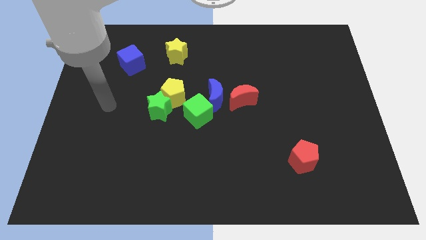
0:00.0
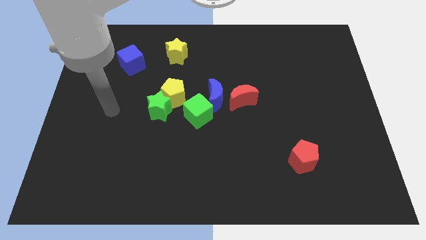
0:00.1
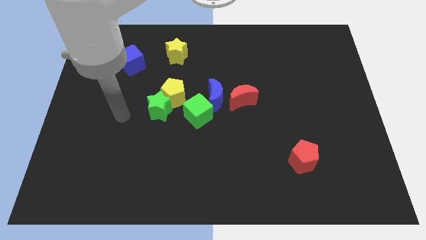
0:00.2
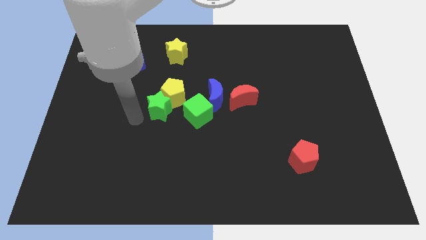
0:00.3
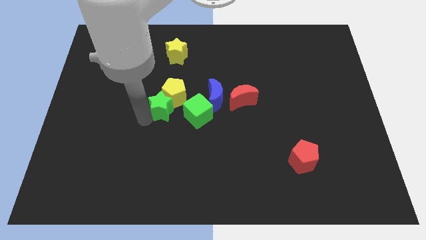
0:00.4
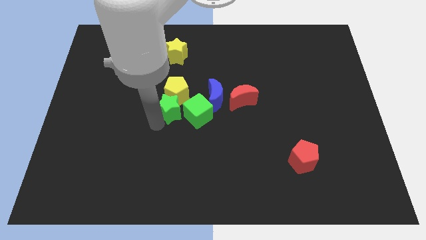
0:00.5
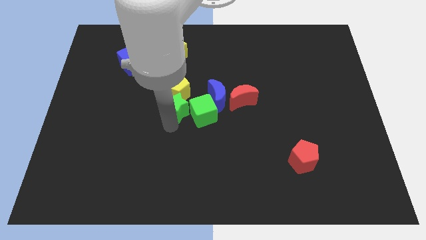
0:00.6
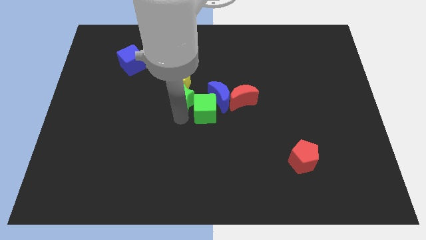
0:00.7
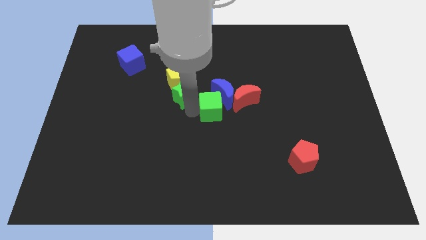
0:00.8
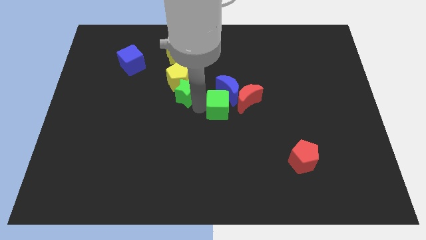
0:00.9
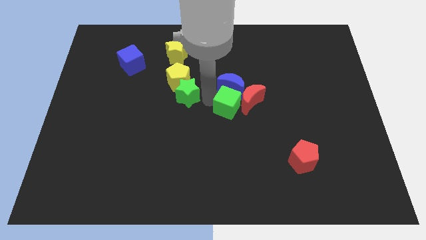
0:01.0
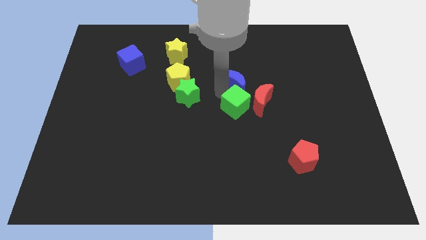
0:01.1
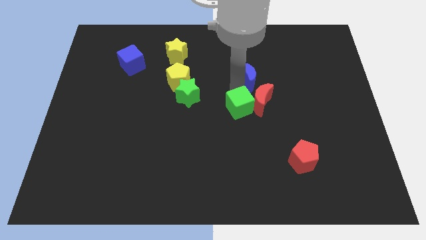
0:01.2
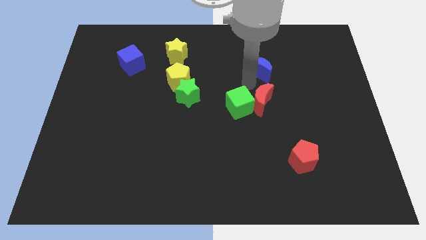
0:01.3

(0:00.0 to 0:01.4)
move the red moon away from the blue moon

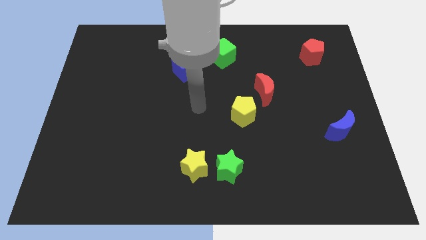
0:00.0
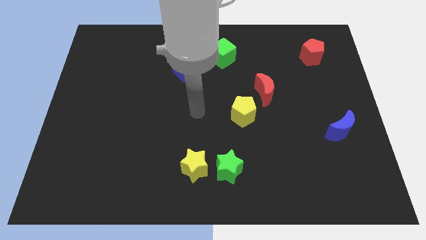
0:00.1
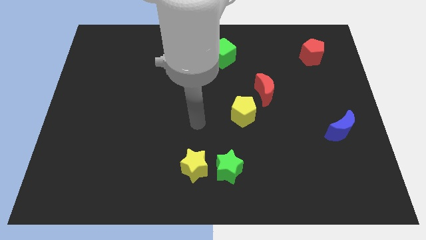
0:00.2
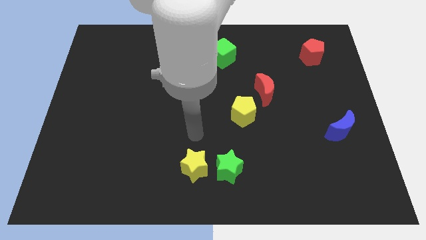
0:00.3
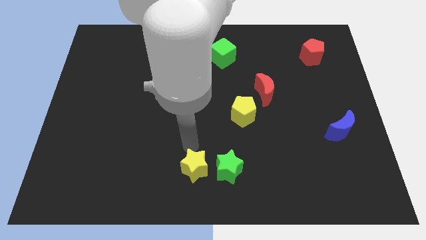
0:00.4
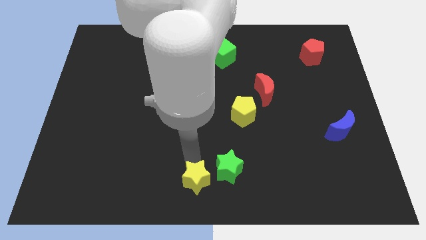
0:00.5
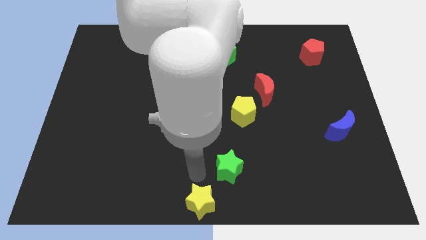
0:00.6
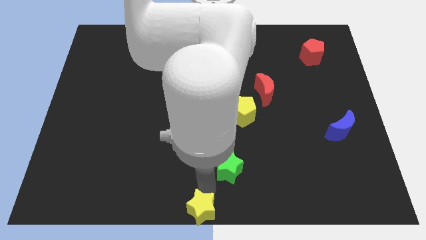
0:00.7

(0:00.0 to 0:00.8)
separate the green star from the yellow star

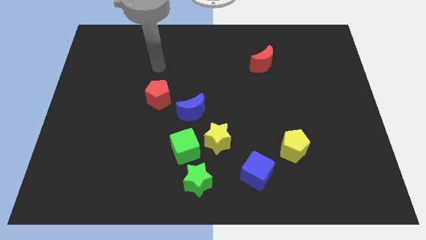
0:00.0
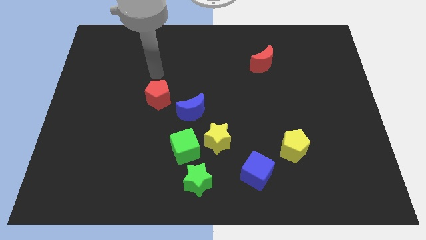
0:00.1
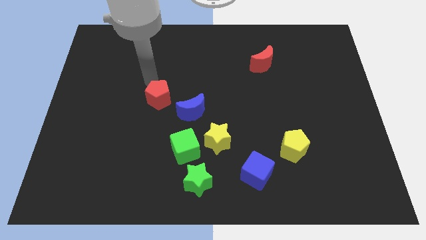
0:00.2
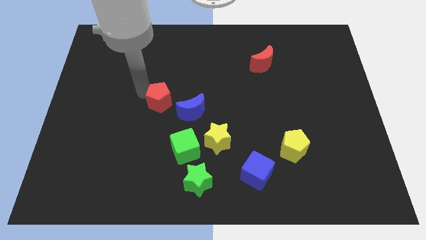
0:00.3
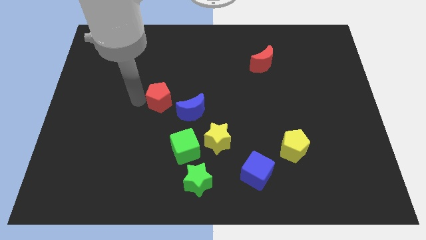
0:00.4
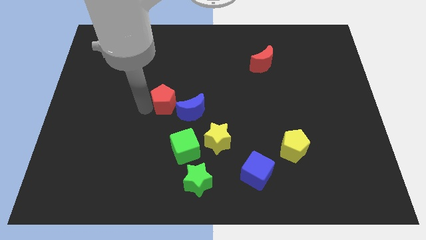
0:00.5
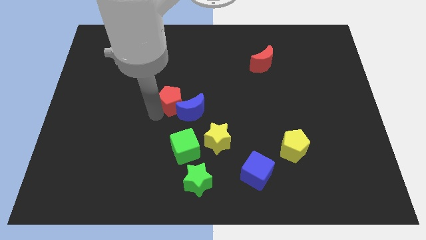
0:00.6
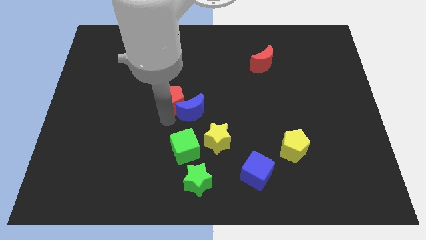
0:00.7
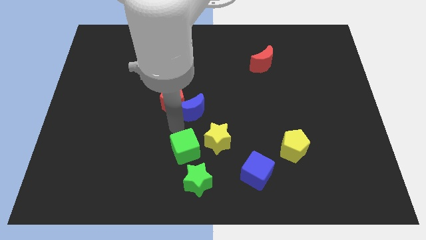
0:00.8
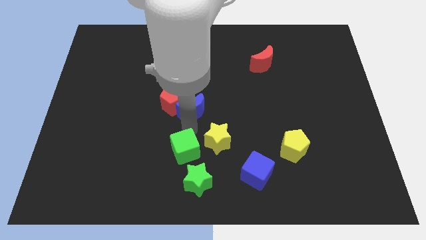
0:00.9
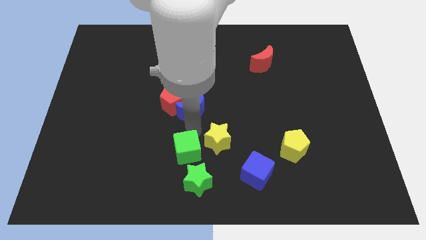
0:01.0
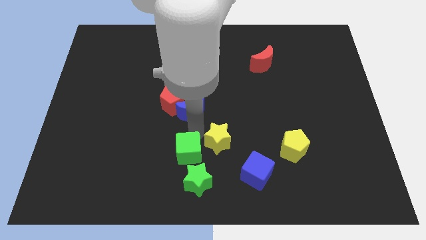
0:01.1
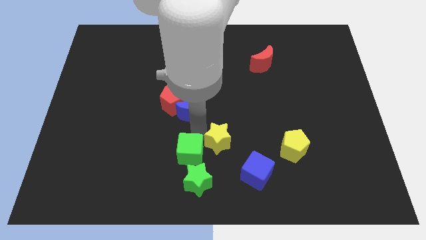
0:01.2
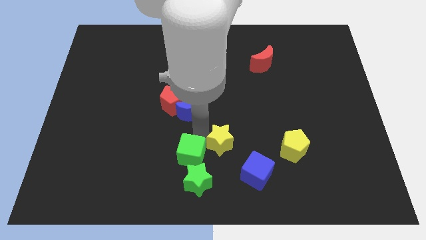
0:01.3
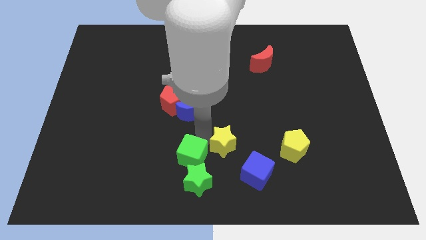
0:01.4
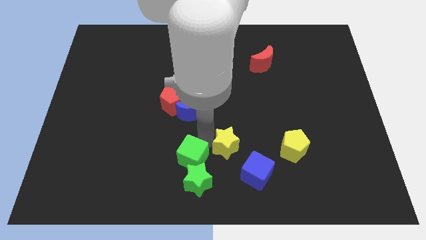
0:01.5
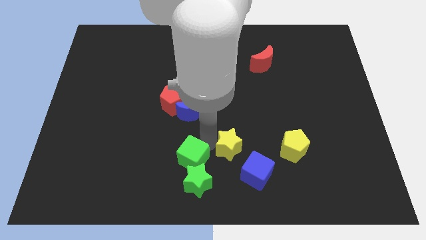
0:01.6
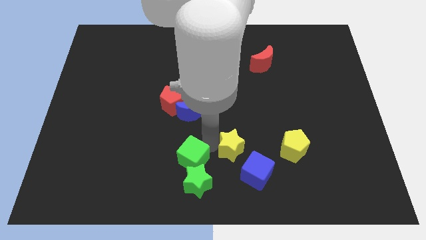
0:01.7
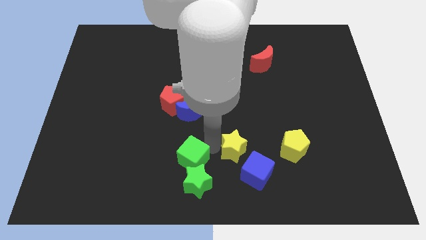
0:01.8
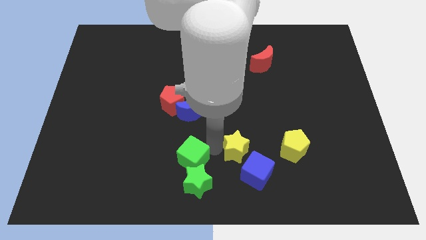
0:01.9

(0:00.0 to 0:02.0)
pull the yellow star apart from the green cube and blue moon

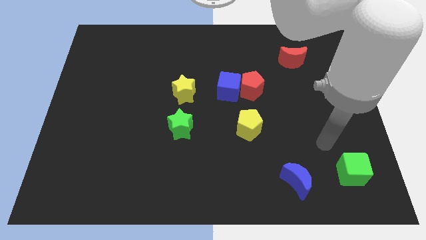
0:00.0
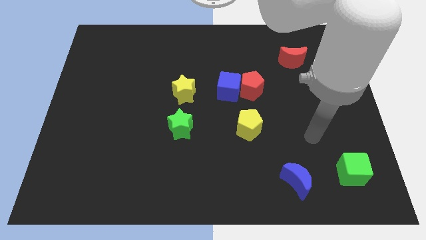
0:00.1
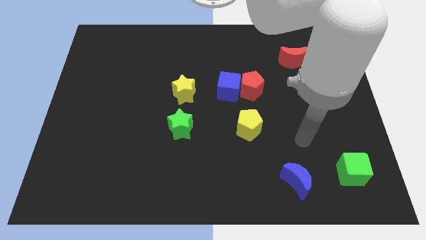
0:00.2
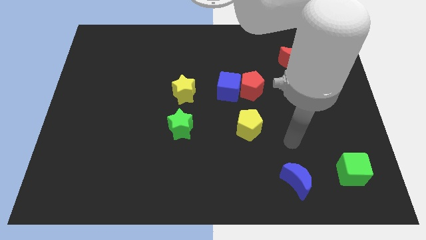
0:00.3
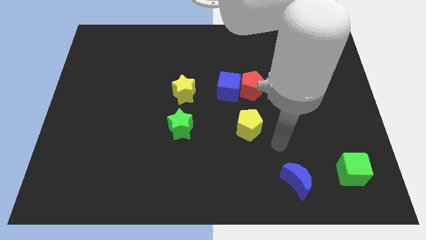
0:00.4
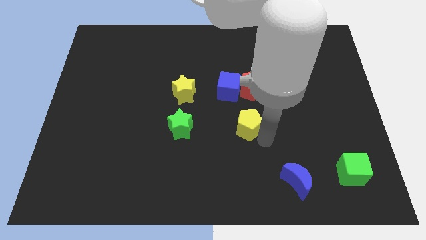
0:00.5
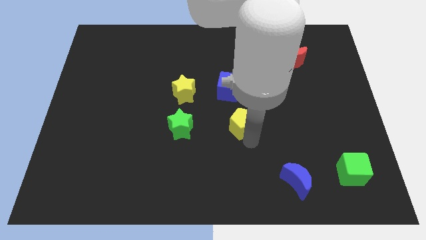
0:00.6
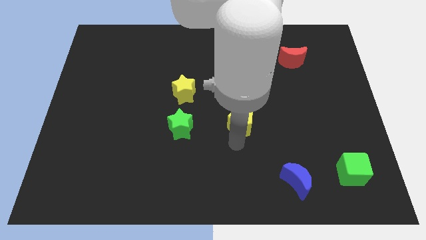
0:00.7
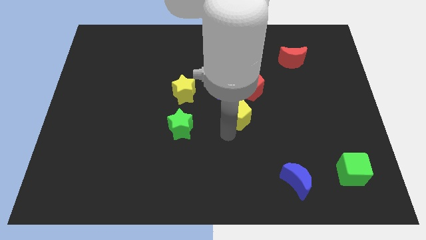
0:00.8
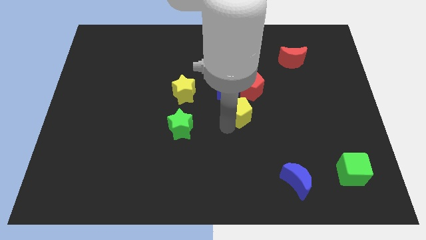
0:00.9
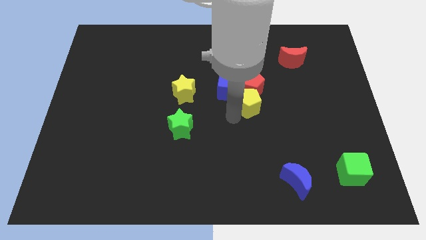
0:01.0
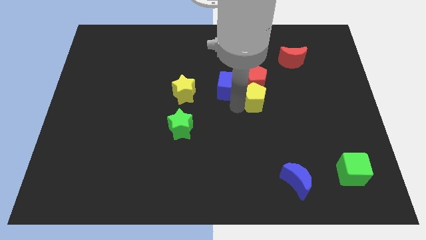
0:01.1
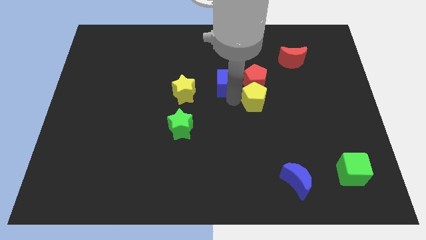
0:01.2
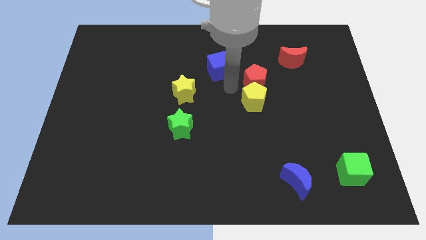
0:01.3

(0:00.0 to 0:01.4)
separate the red pentagon from the blue cube

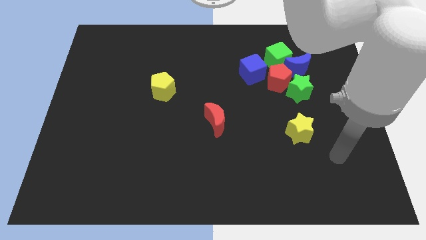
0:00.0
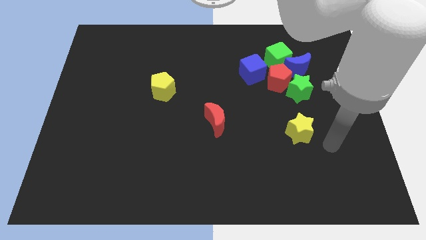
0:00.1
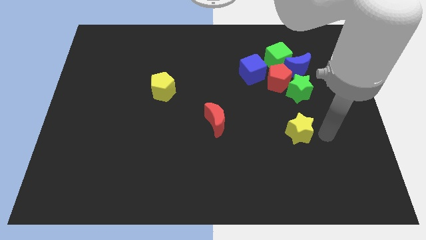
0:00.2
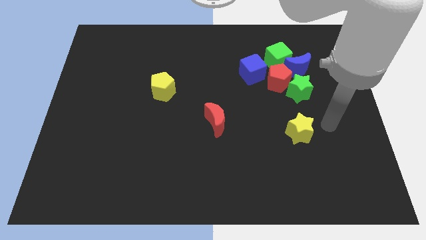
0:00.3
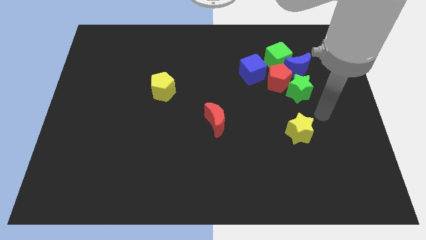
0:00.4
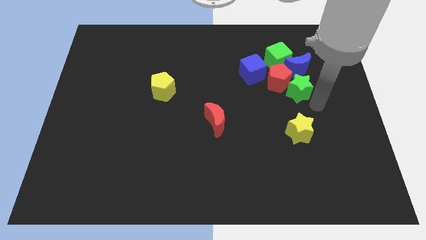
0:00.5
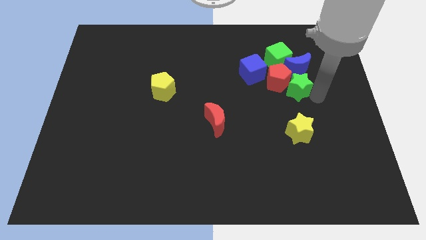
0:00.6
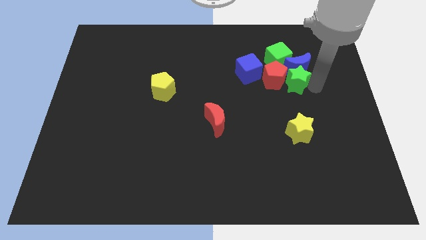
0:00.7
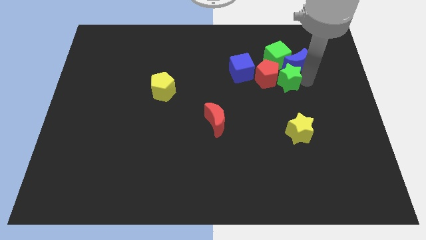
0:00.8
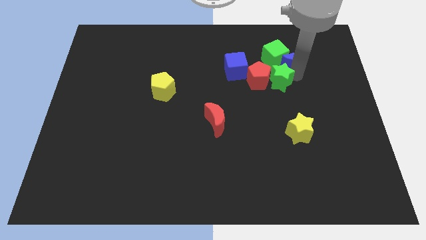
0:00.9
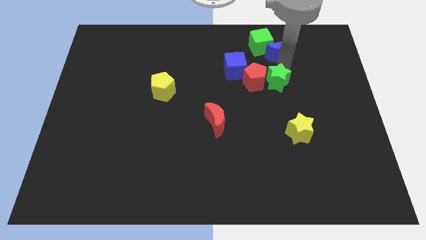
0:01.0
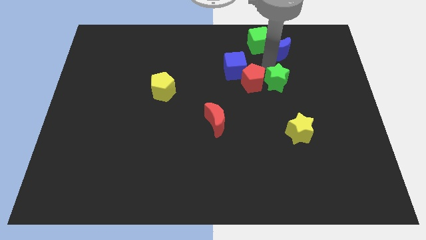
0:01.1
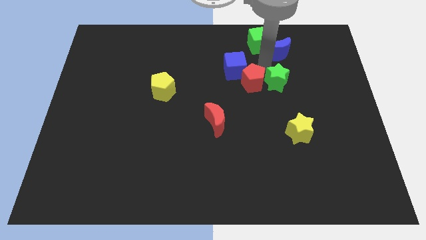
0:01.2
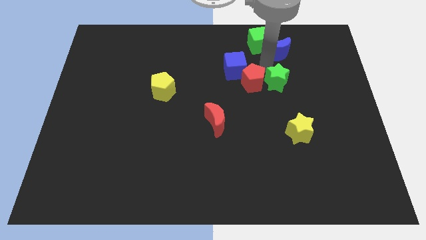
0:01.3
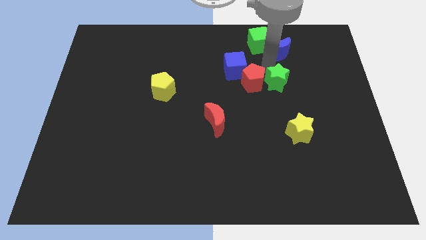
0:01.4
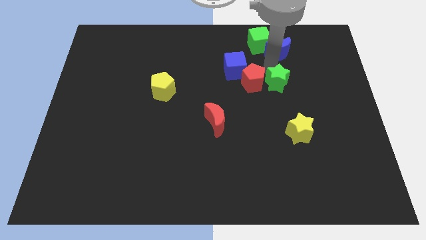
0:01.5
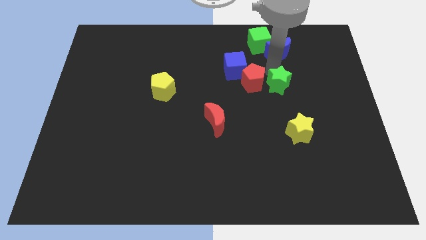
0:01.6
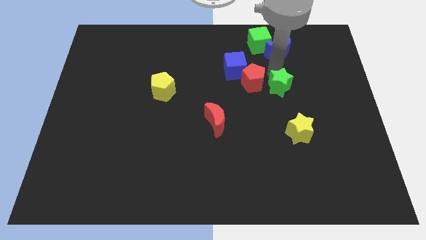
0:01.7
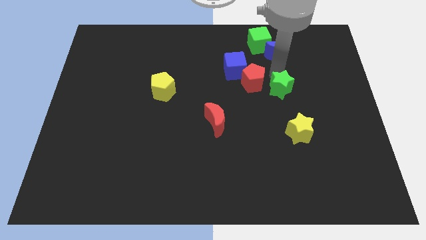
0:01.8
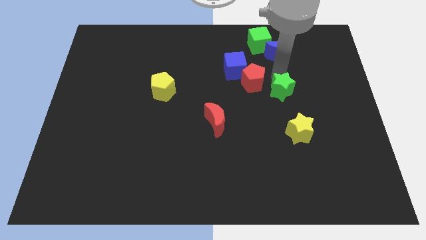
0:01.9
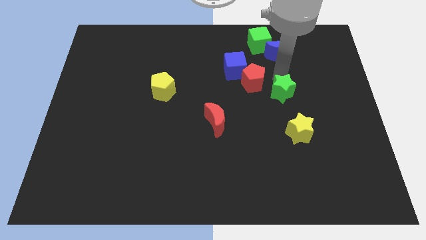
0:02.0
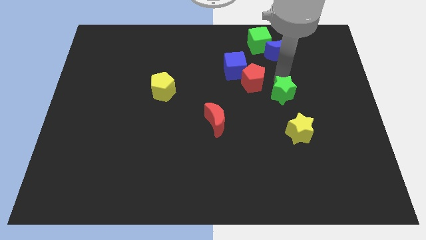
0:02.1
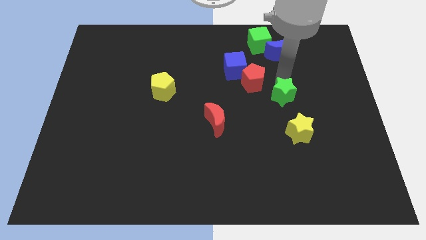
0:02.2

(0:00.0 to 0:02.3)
separate the green star from the red pentagon and blue moon

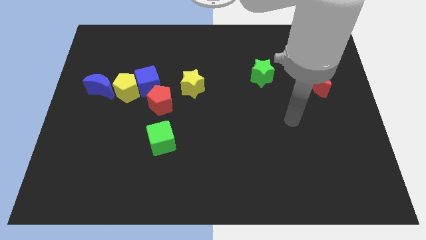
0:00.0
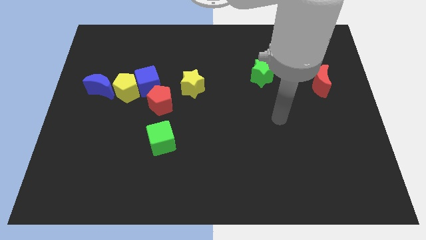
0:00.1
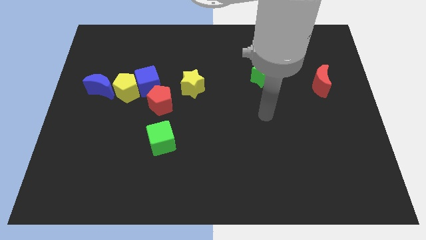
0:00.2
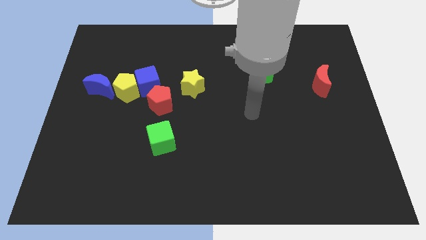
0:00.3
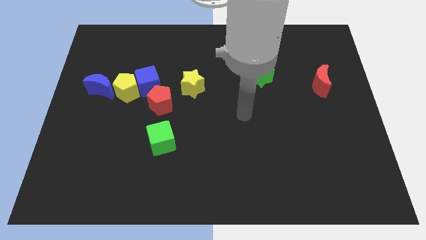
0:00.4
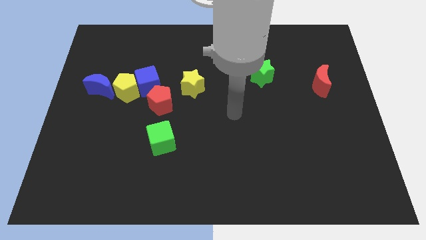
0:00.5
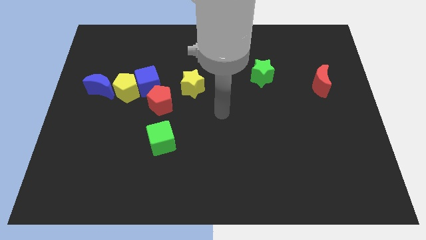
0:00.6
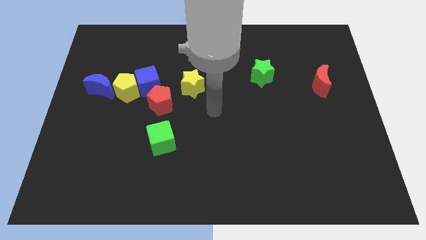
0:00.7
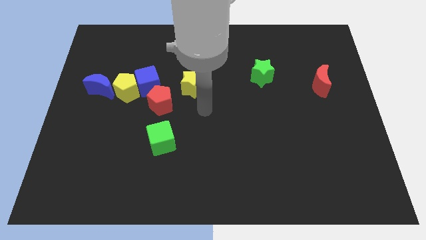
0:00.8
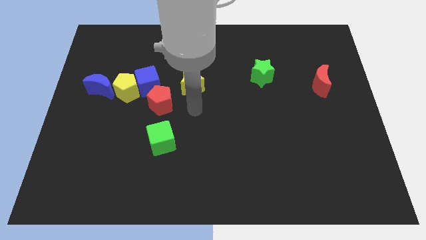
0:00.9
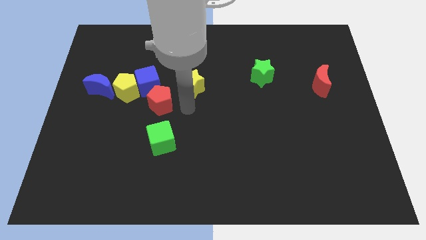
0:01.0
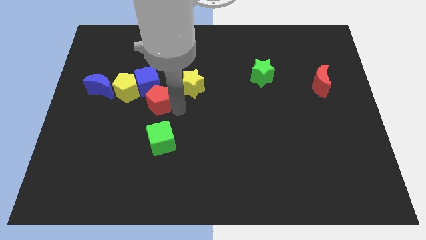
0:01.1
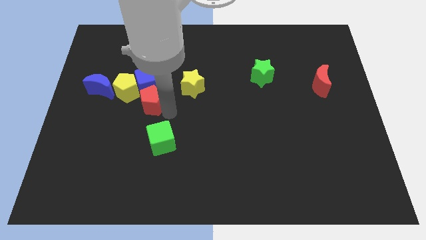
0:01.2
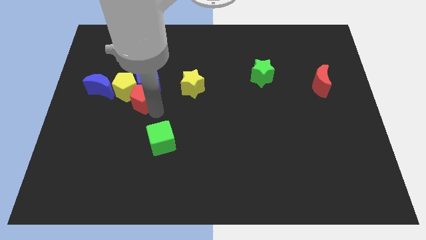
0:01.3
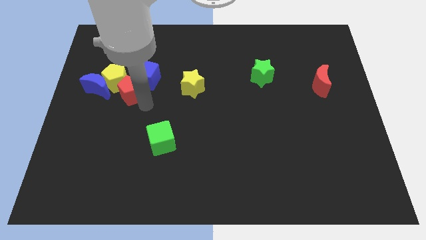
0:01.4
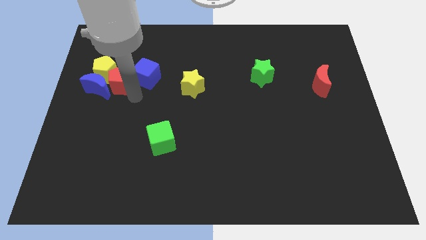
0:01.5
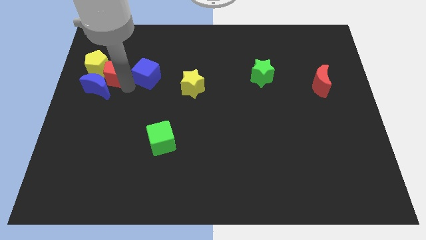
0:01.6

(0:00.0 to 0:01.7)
move the blue cube away from the yellow pentagon and red pentagon
